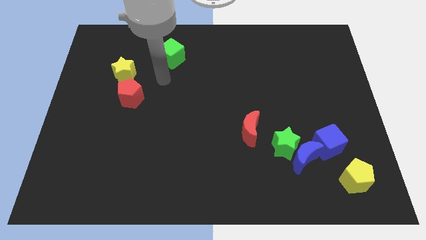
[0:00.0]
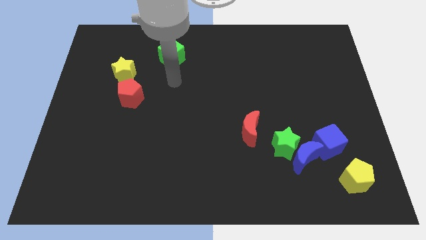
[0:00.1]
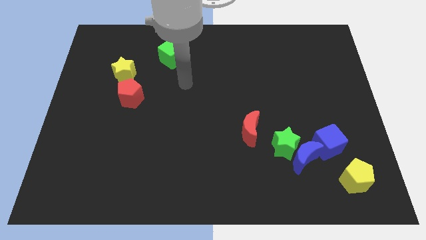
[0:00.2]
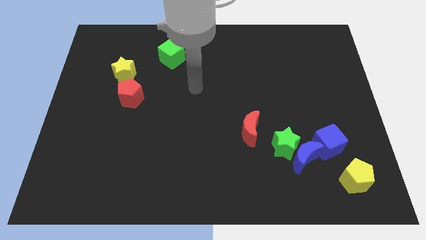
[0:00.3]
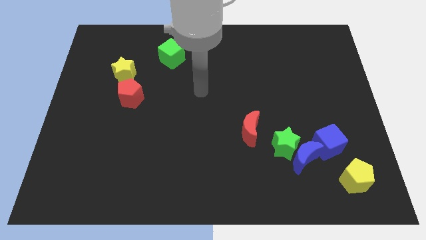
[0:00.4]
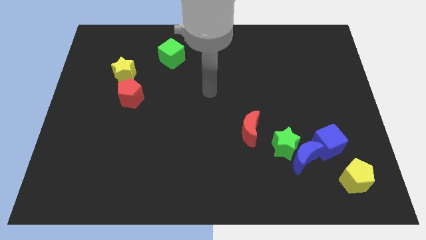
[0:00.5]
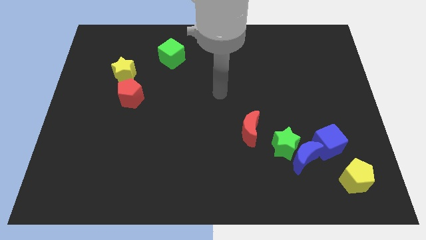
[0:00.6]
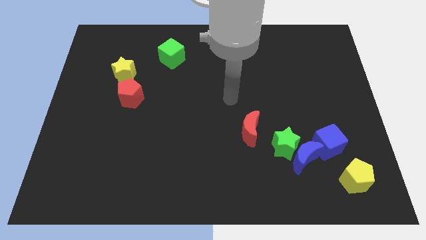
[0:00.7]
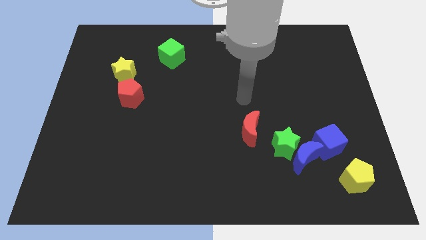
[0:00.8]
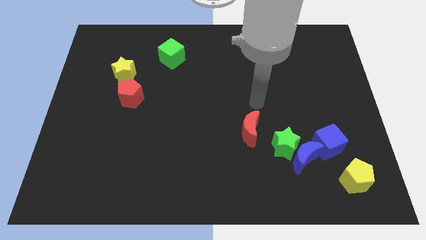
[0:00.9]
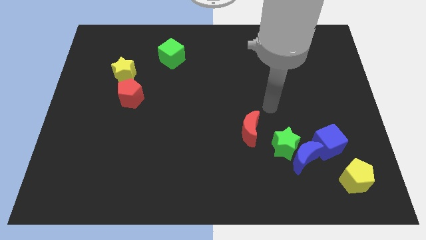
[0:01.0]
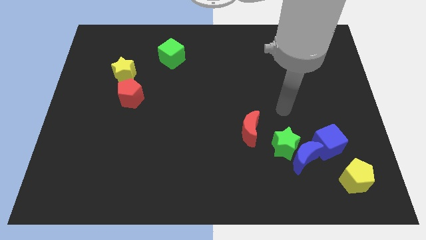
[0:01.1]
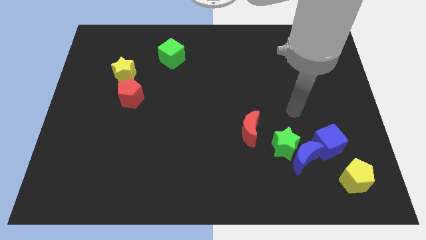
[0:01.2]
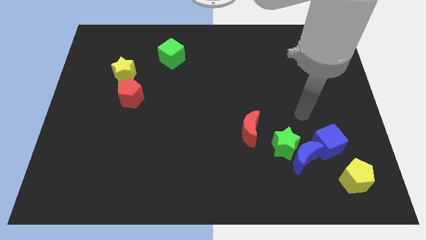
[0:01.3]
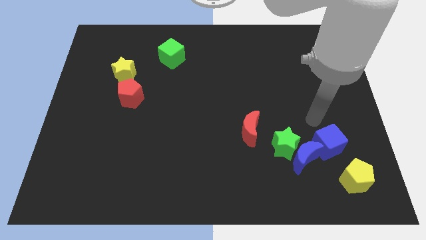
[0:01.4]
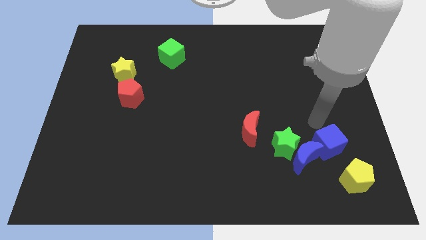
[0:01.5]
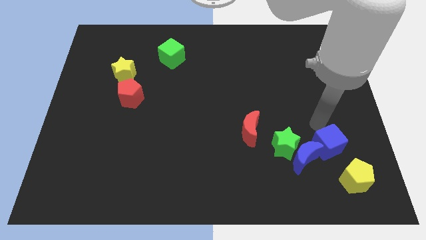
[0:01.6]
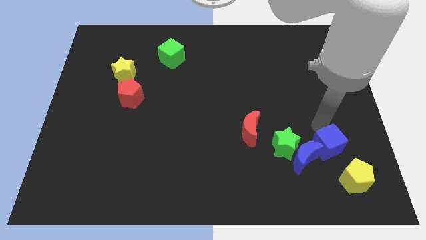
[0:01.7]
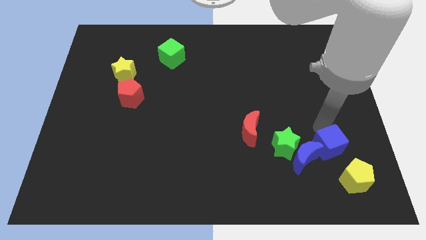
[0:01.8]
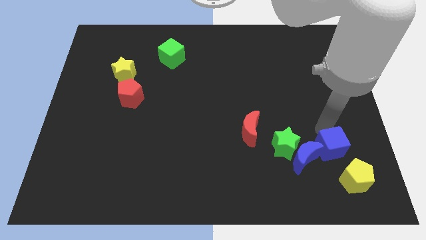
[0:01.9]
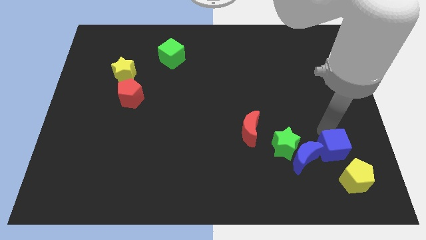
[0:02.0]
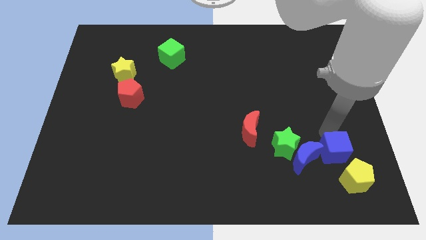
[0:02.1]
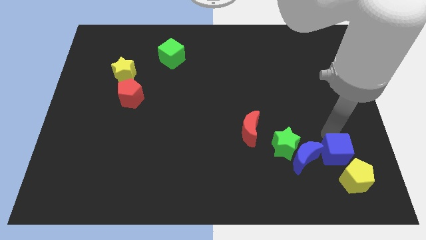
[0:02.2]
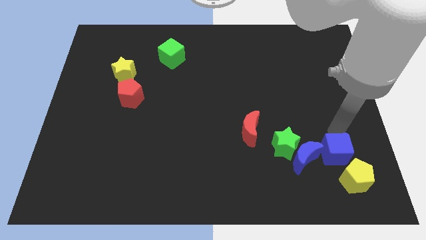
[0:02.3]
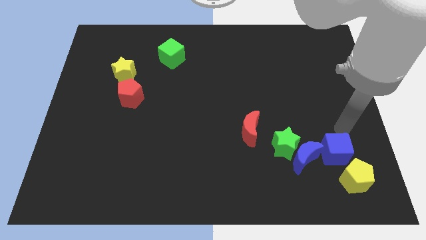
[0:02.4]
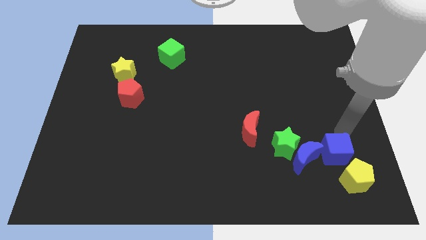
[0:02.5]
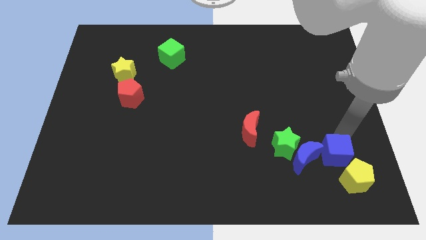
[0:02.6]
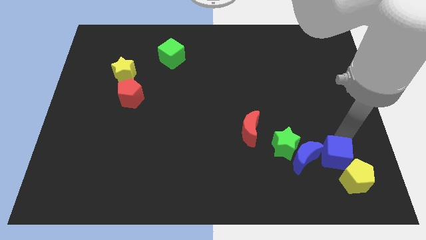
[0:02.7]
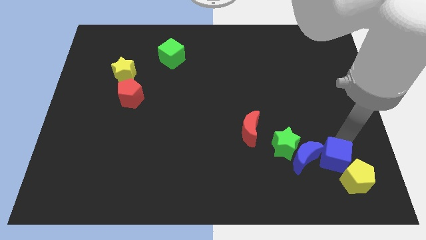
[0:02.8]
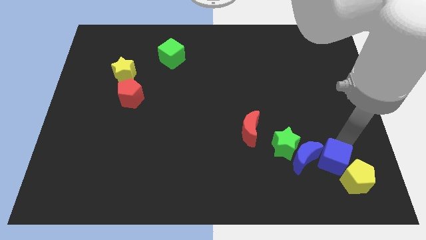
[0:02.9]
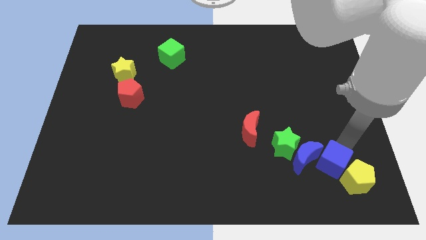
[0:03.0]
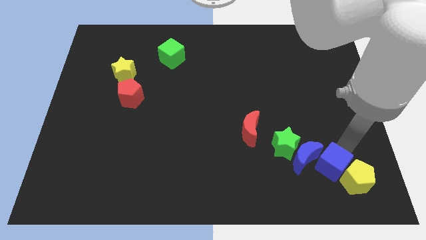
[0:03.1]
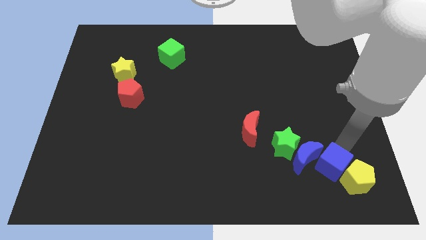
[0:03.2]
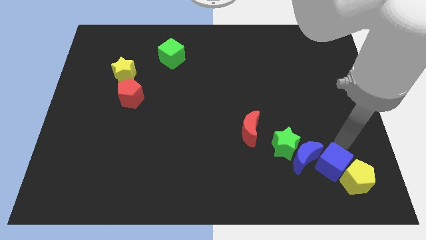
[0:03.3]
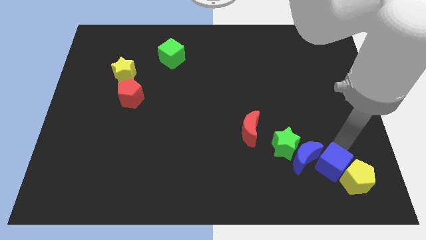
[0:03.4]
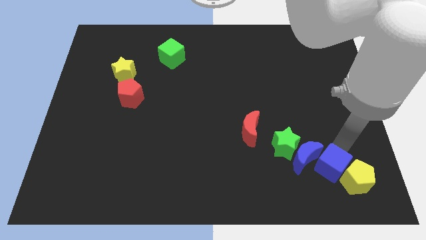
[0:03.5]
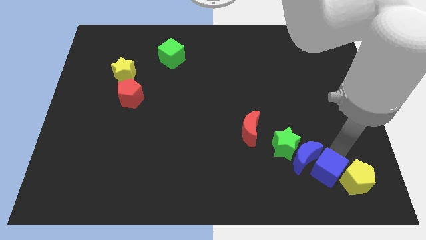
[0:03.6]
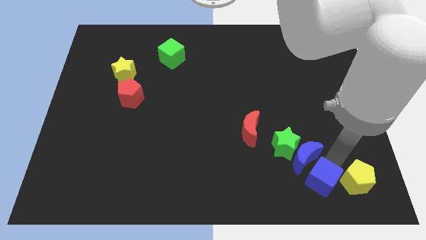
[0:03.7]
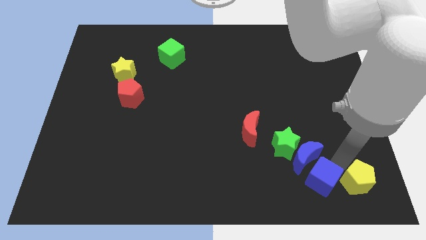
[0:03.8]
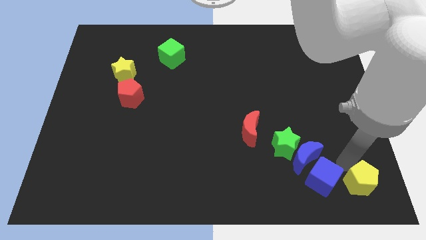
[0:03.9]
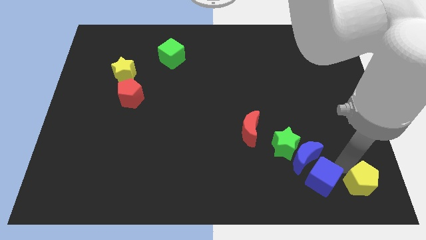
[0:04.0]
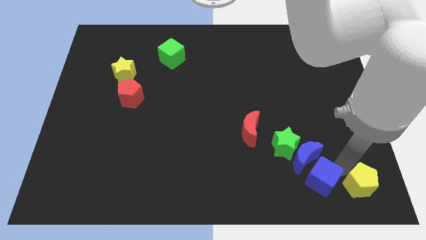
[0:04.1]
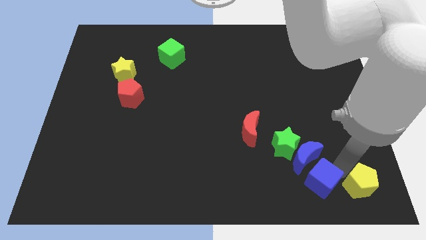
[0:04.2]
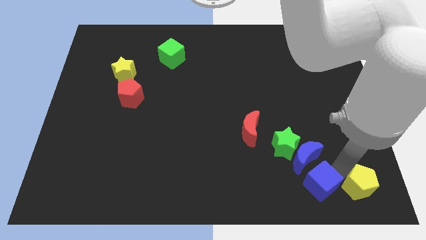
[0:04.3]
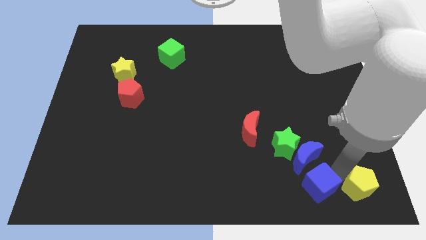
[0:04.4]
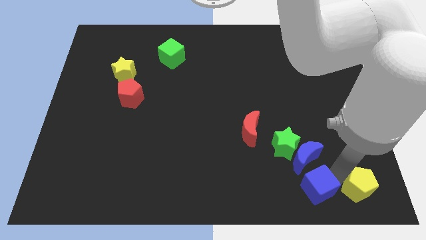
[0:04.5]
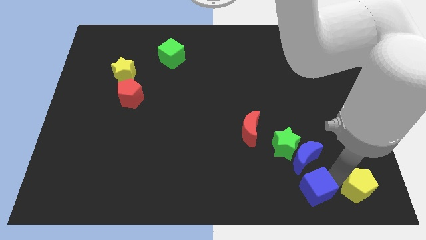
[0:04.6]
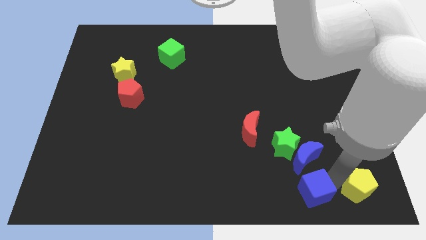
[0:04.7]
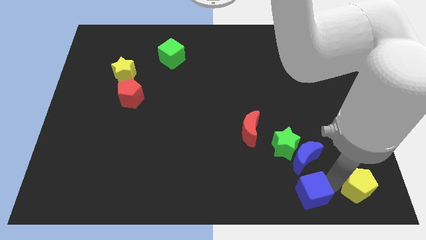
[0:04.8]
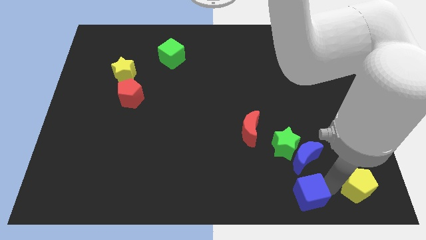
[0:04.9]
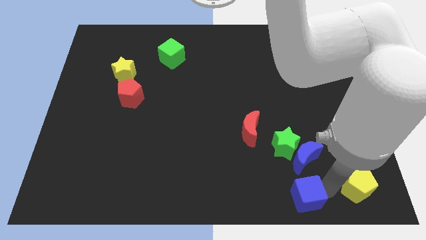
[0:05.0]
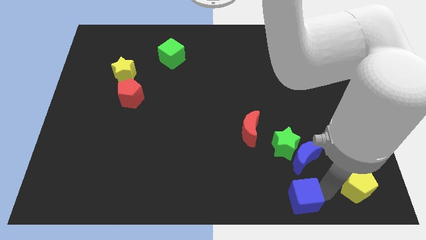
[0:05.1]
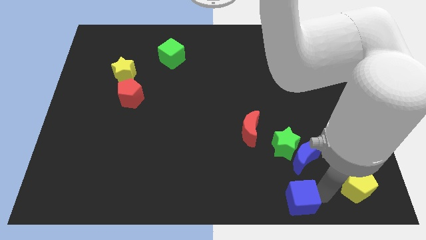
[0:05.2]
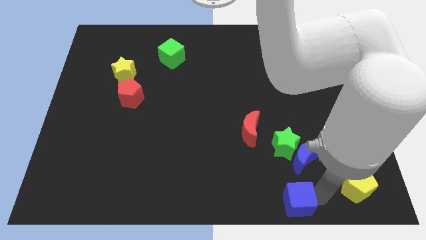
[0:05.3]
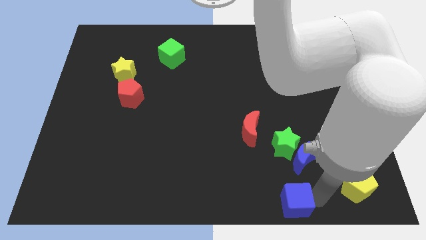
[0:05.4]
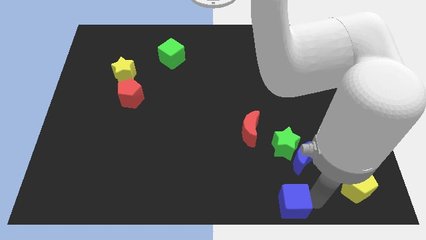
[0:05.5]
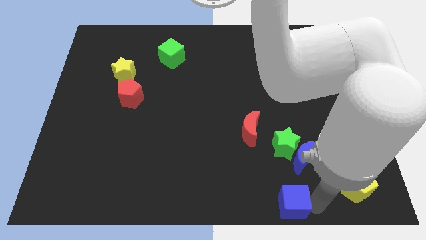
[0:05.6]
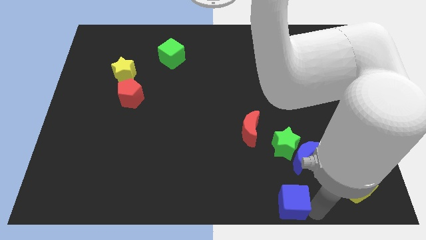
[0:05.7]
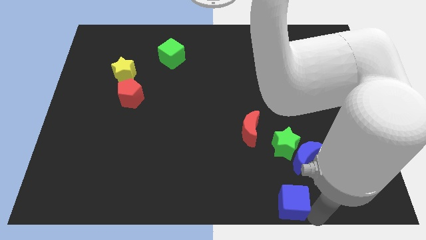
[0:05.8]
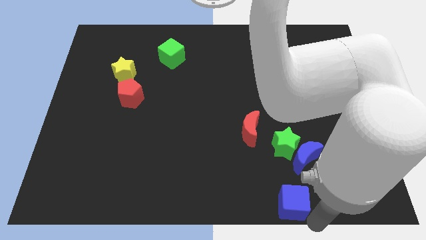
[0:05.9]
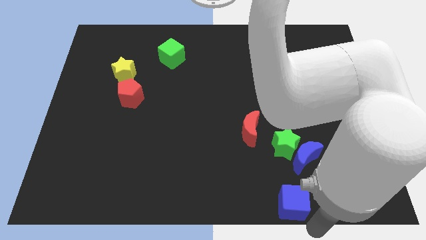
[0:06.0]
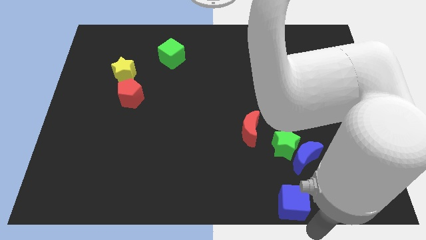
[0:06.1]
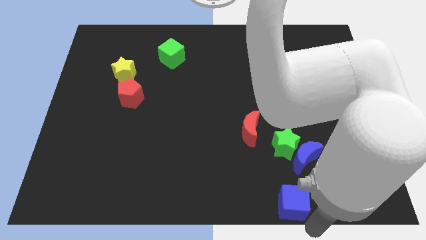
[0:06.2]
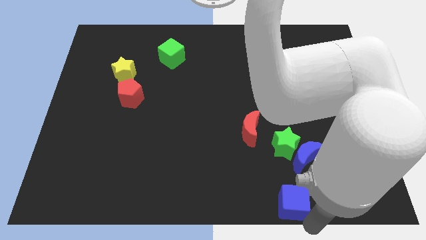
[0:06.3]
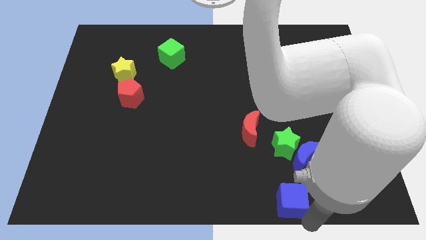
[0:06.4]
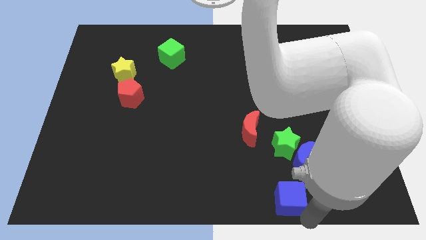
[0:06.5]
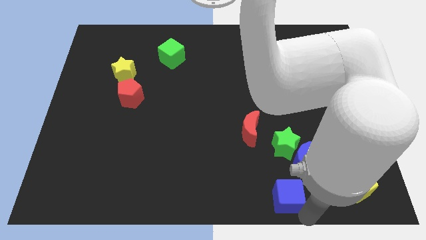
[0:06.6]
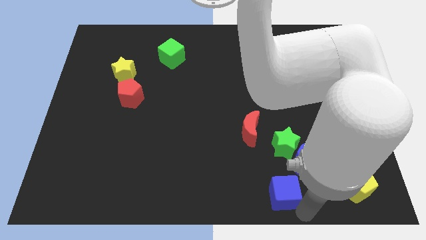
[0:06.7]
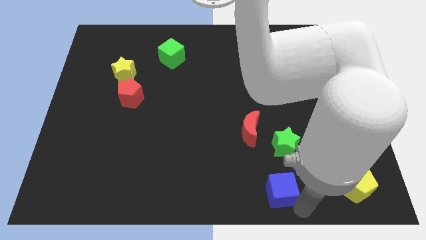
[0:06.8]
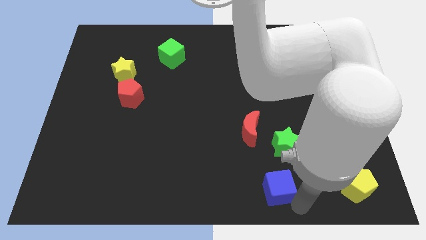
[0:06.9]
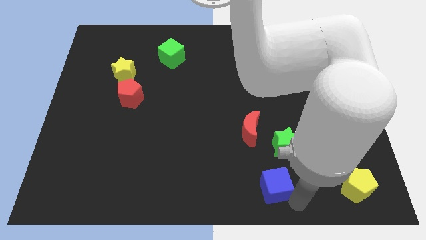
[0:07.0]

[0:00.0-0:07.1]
push the blue cube to the bottom left side of the green star

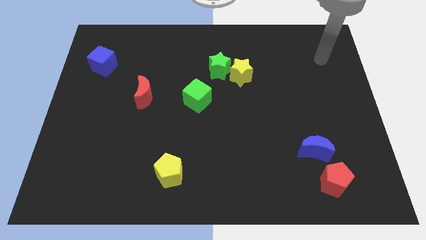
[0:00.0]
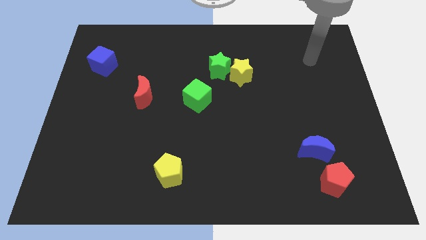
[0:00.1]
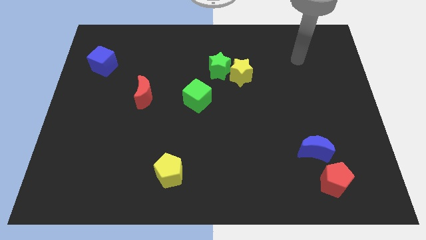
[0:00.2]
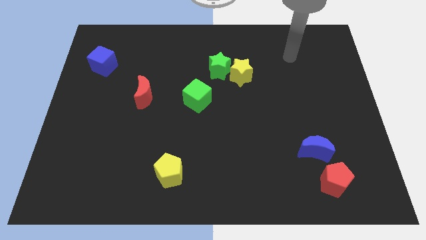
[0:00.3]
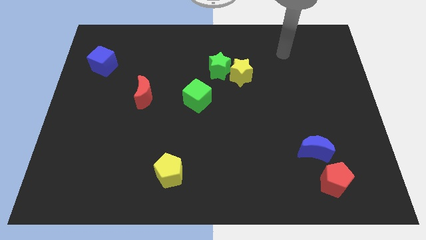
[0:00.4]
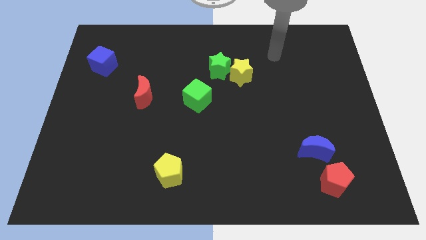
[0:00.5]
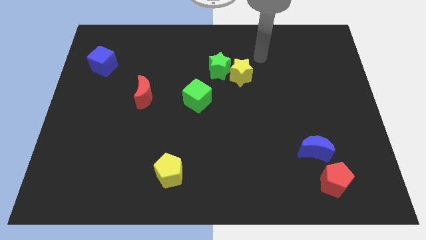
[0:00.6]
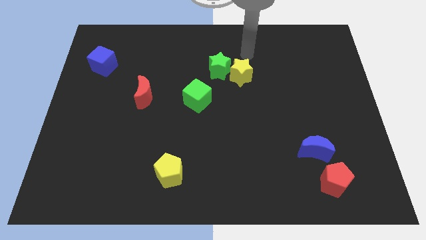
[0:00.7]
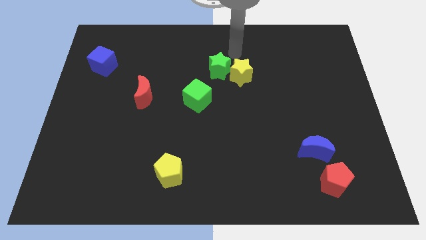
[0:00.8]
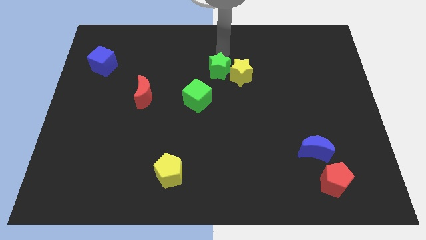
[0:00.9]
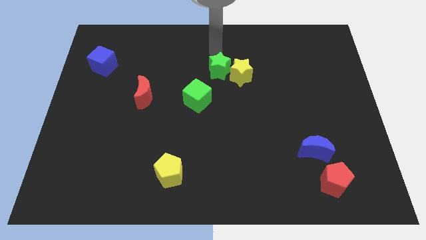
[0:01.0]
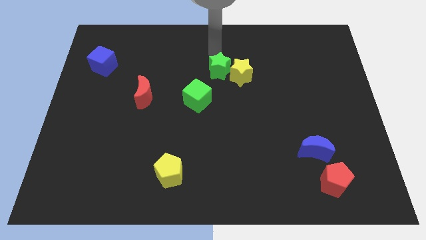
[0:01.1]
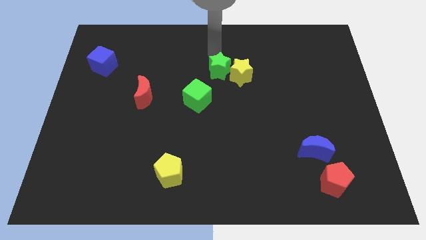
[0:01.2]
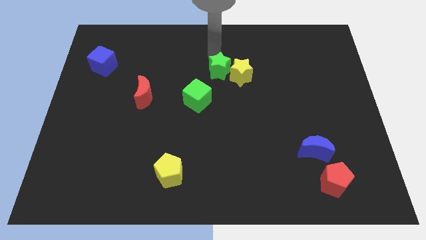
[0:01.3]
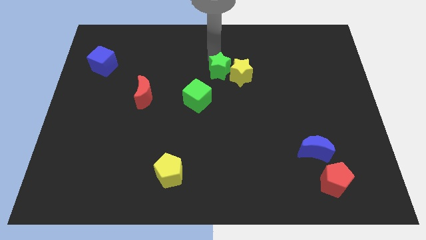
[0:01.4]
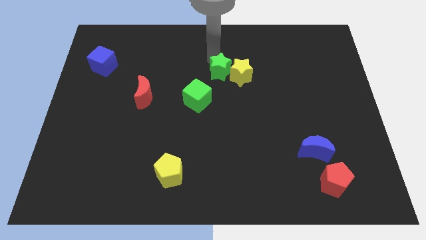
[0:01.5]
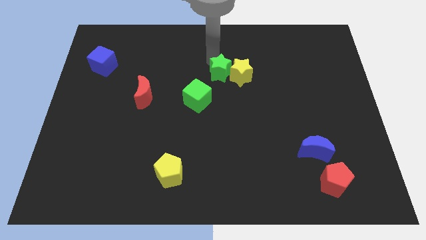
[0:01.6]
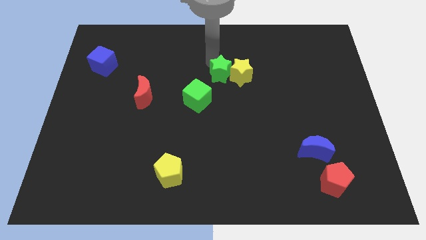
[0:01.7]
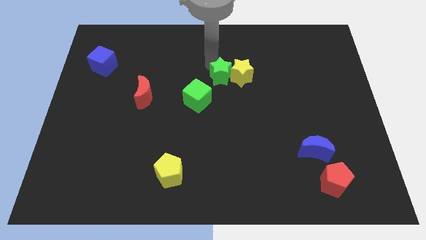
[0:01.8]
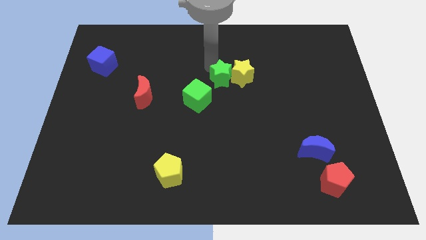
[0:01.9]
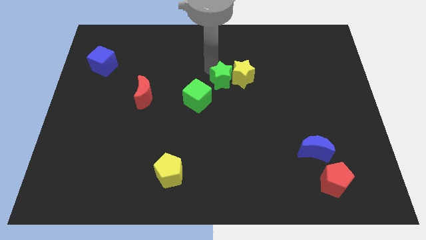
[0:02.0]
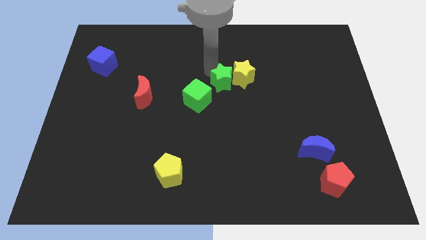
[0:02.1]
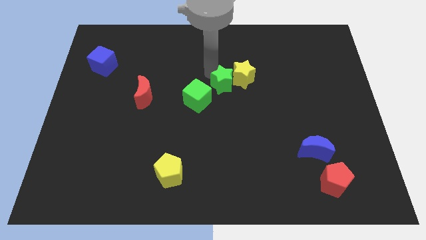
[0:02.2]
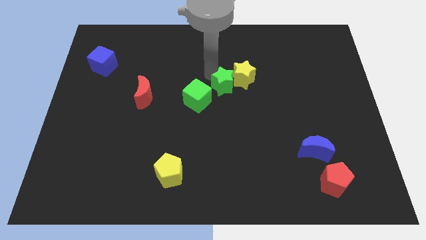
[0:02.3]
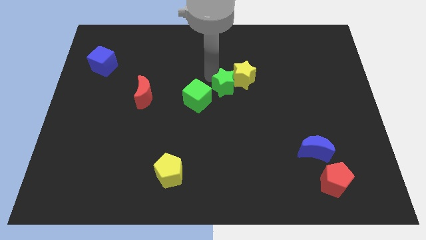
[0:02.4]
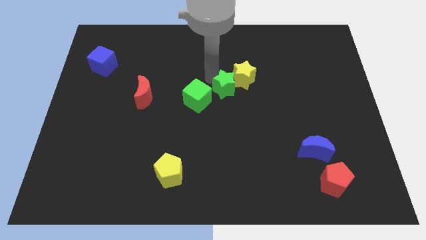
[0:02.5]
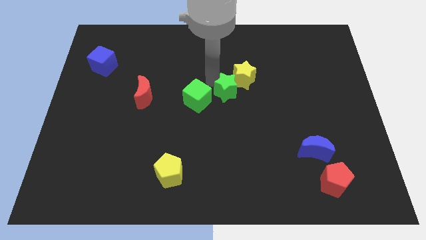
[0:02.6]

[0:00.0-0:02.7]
put the green star below the yellow star
